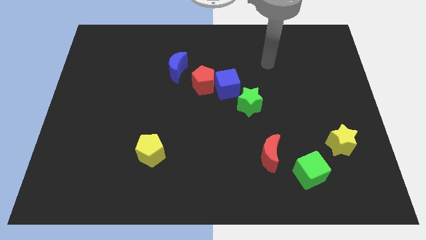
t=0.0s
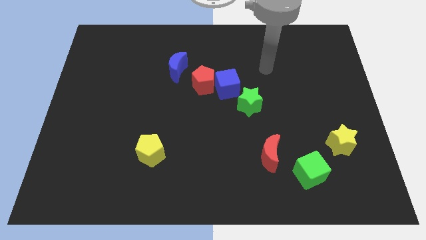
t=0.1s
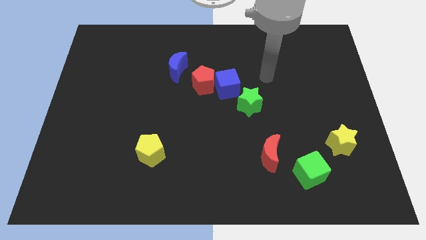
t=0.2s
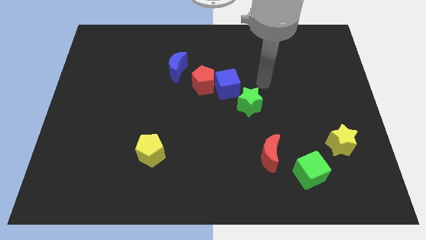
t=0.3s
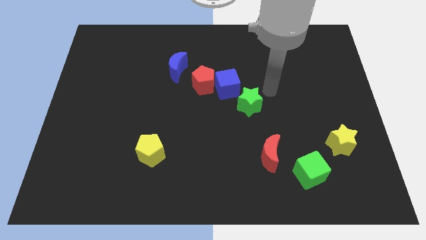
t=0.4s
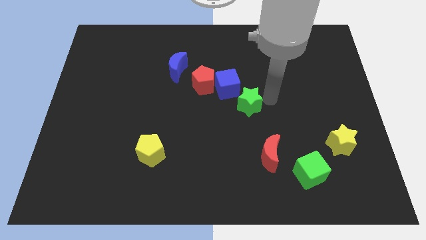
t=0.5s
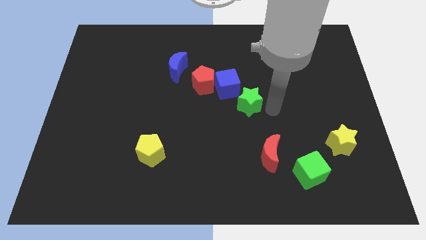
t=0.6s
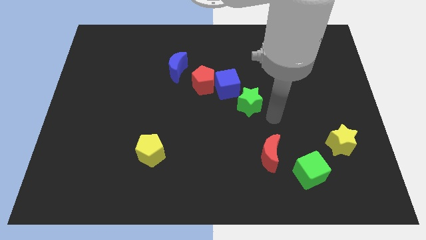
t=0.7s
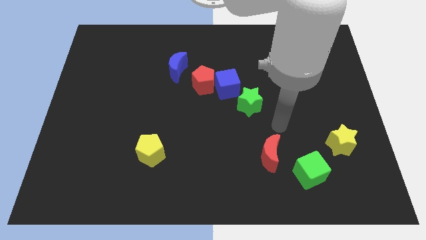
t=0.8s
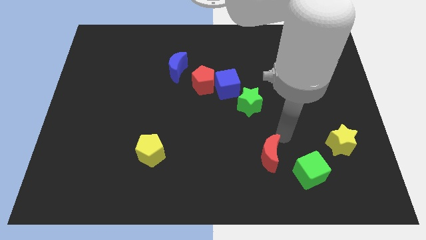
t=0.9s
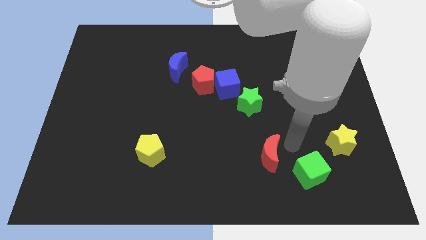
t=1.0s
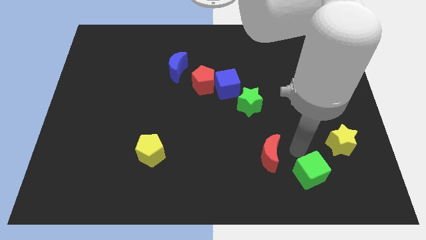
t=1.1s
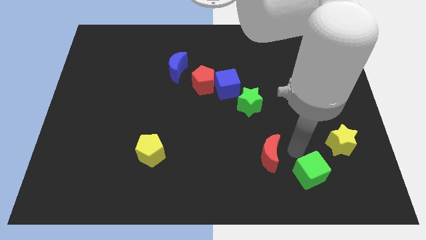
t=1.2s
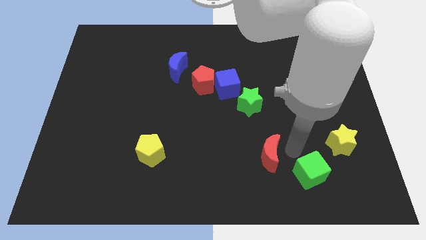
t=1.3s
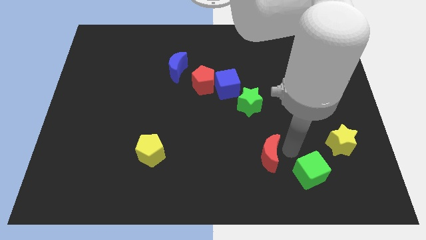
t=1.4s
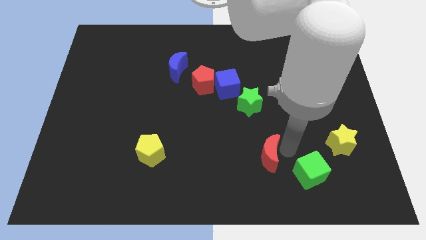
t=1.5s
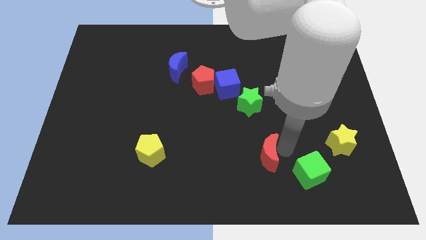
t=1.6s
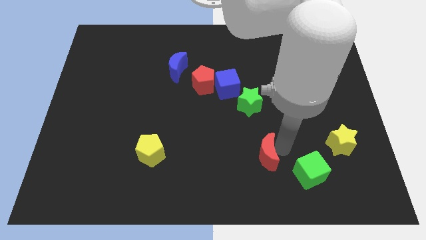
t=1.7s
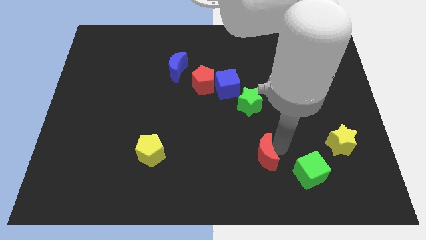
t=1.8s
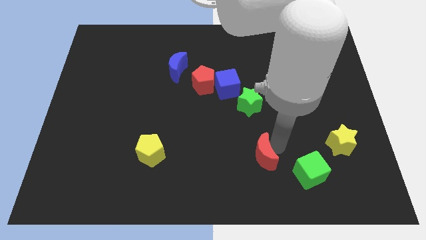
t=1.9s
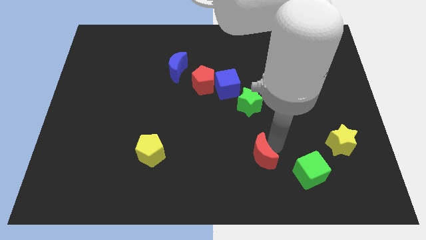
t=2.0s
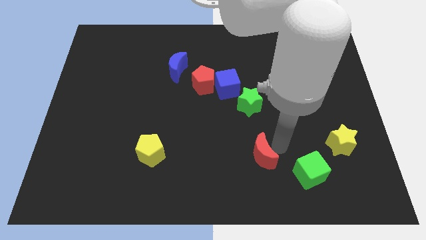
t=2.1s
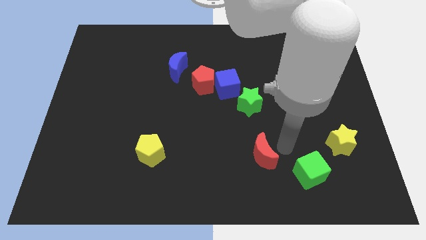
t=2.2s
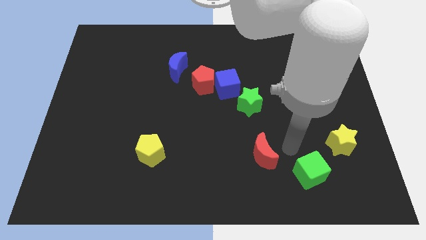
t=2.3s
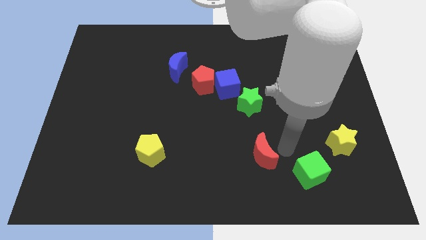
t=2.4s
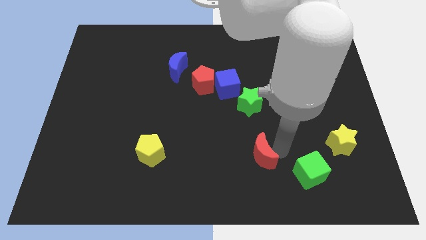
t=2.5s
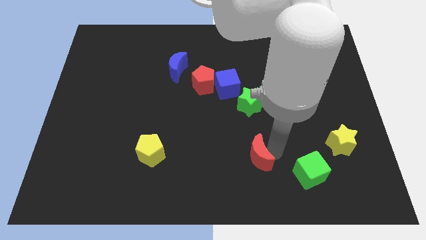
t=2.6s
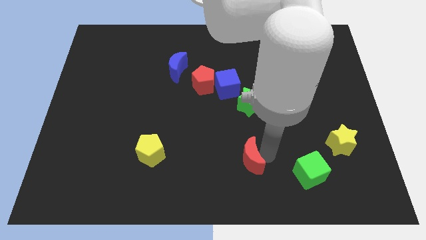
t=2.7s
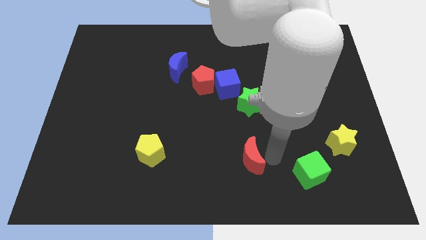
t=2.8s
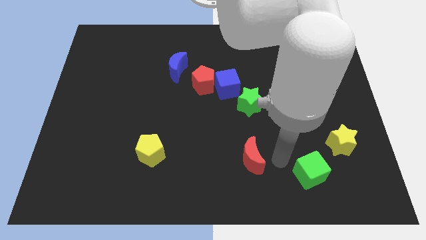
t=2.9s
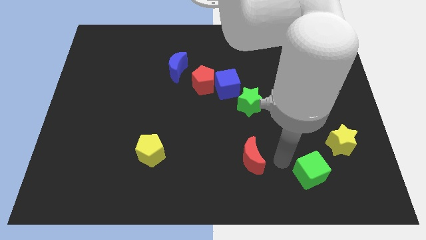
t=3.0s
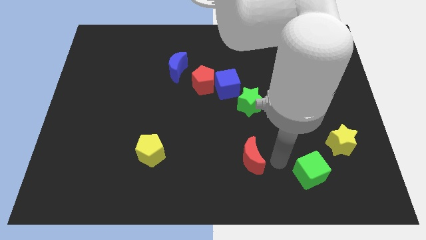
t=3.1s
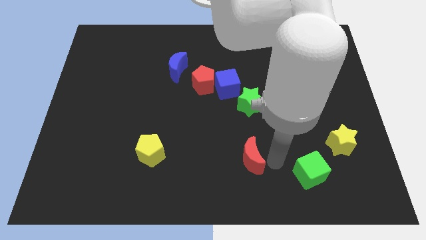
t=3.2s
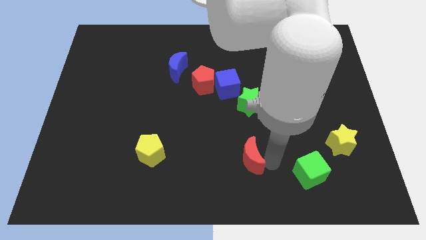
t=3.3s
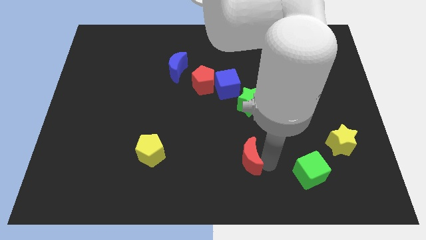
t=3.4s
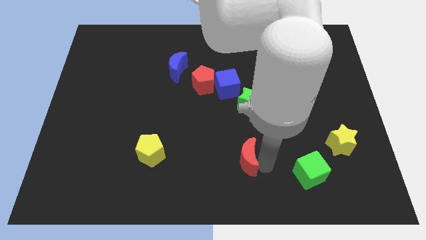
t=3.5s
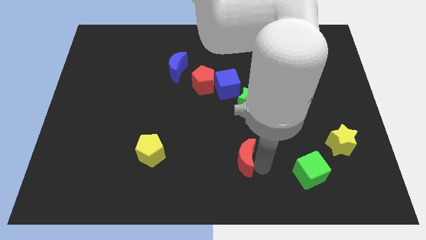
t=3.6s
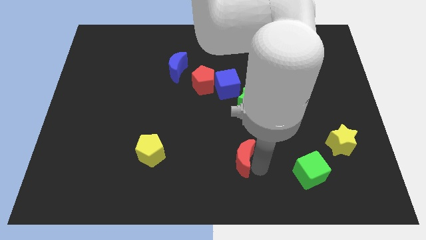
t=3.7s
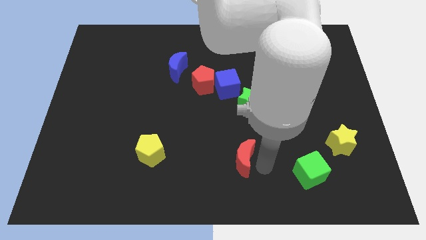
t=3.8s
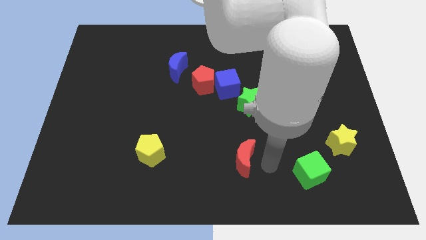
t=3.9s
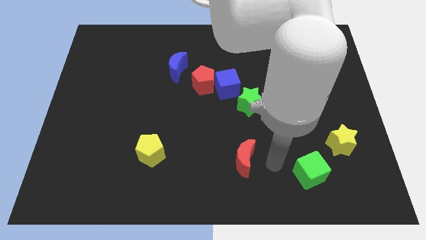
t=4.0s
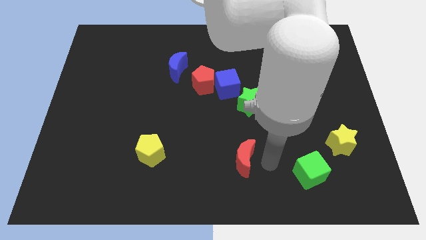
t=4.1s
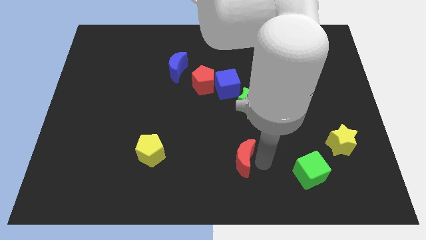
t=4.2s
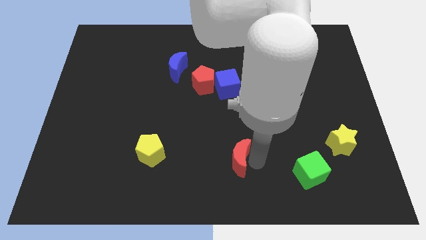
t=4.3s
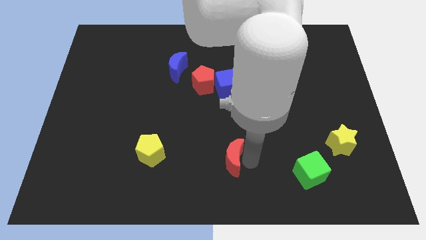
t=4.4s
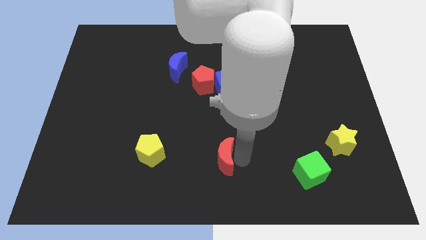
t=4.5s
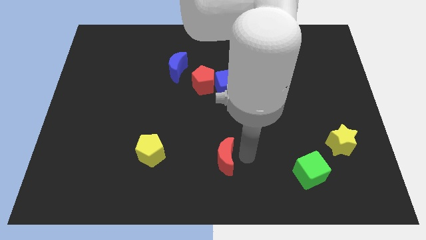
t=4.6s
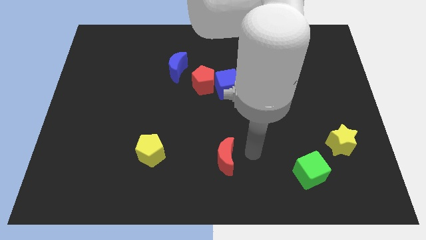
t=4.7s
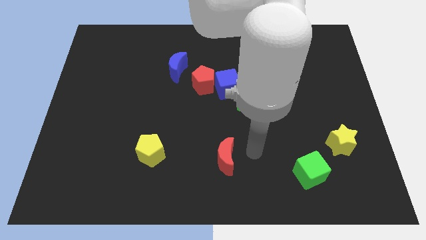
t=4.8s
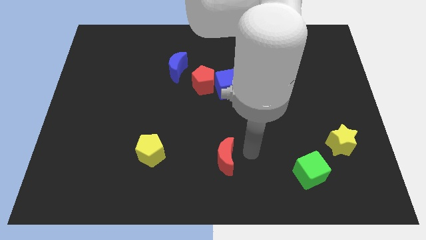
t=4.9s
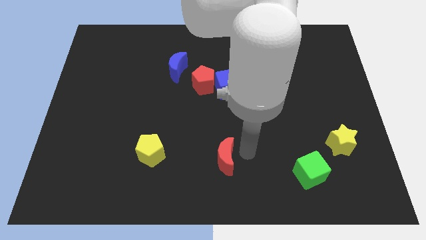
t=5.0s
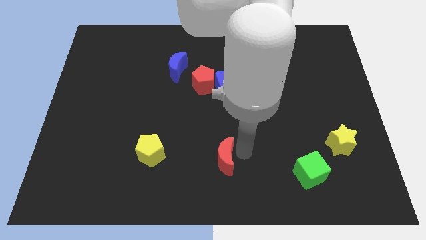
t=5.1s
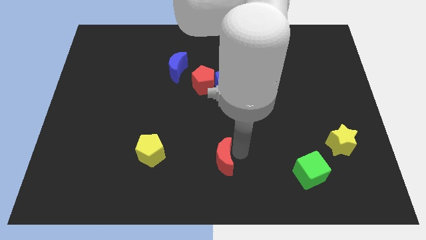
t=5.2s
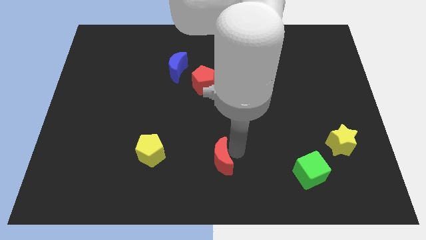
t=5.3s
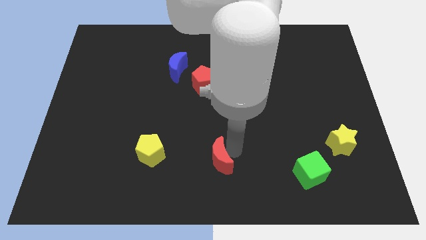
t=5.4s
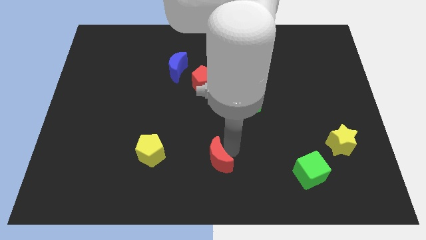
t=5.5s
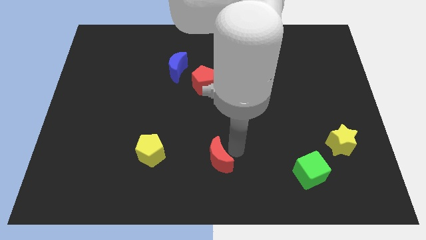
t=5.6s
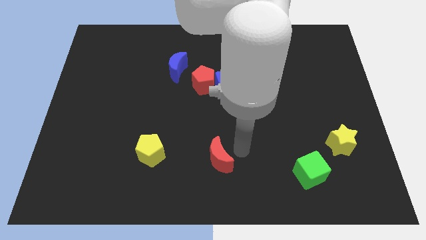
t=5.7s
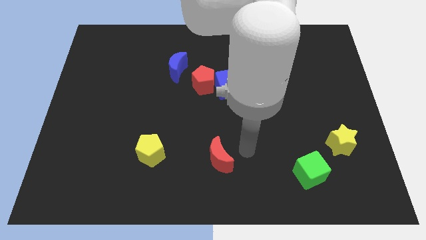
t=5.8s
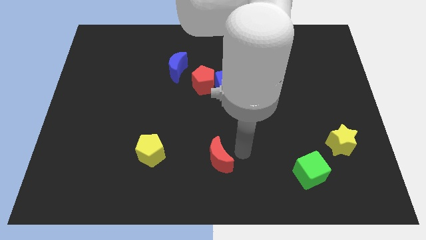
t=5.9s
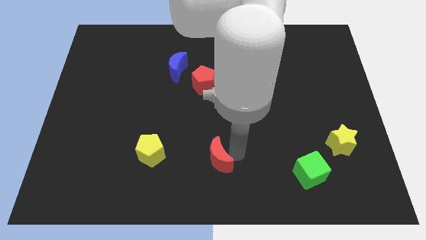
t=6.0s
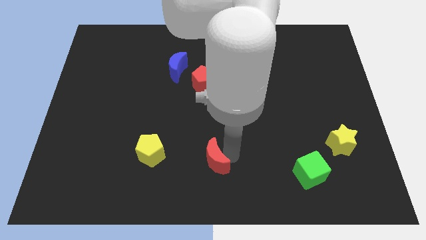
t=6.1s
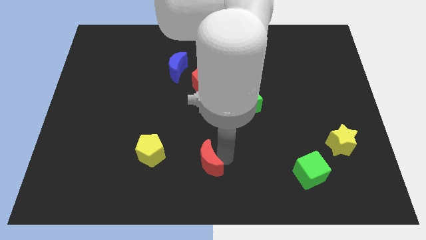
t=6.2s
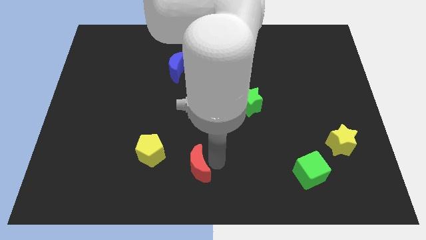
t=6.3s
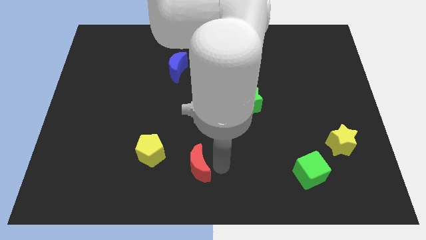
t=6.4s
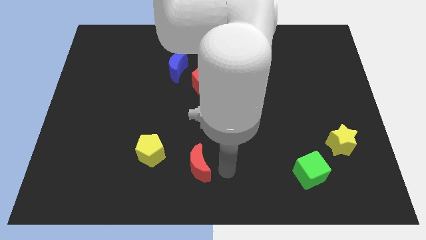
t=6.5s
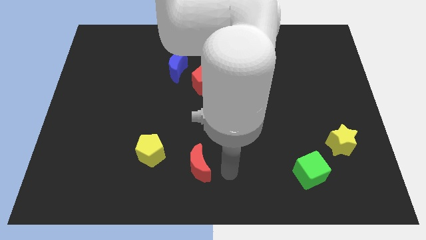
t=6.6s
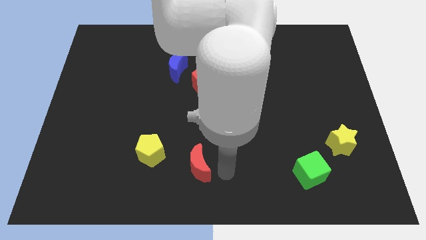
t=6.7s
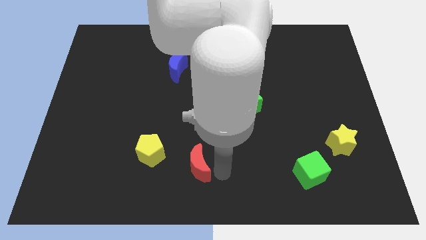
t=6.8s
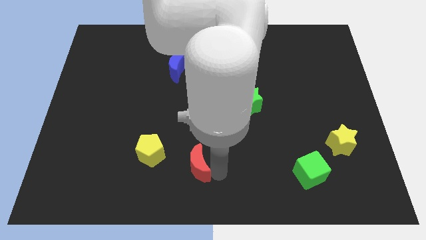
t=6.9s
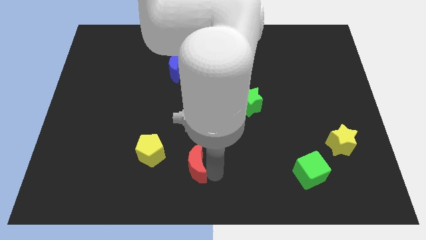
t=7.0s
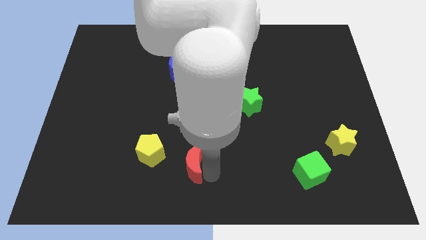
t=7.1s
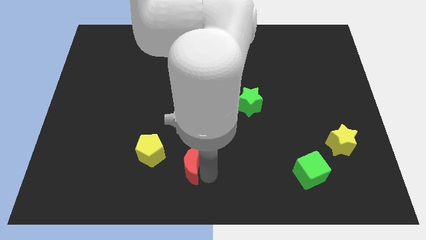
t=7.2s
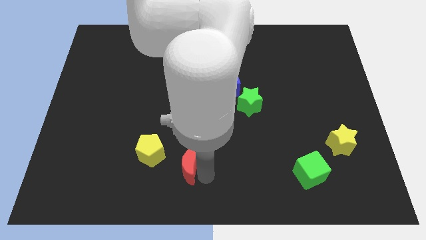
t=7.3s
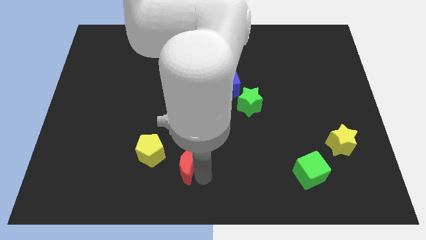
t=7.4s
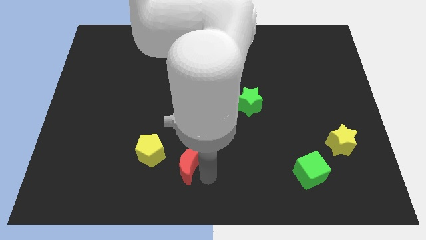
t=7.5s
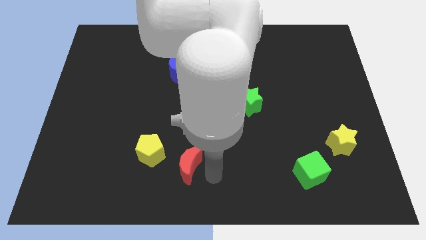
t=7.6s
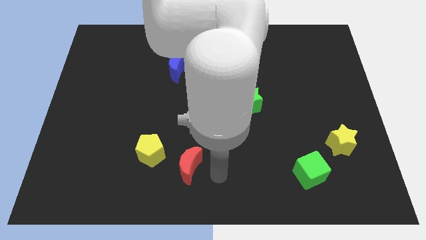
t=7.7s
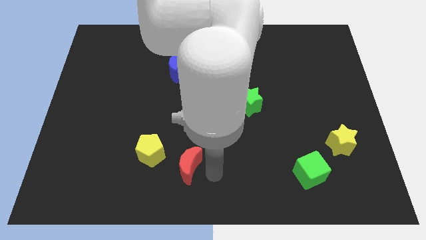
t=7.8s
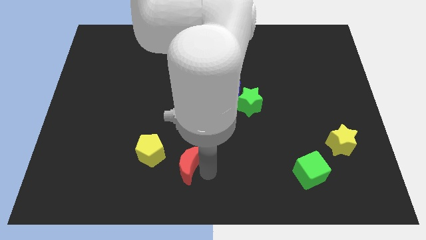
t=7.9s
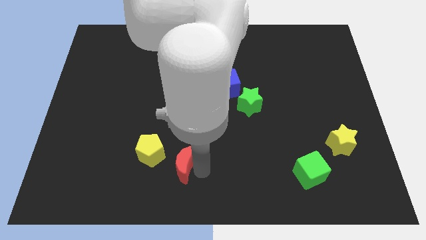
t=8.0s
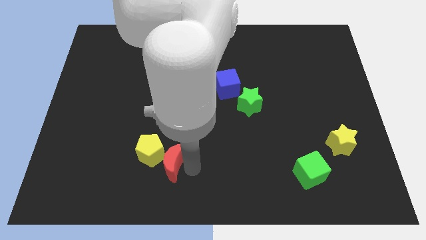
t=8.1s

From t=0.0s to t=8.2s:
push the red moon close to the yellow pentagon
